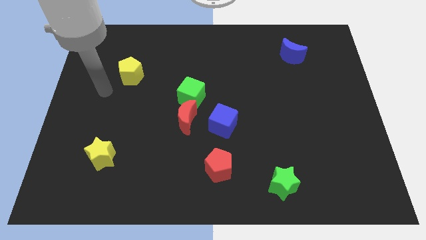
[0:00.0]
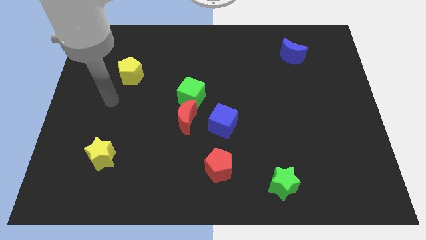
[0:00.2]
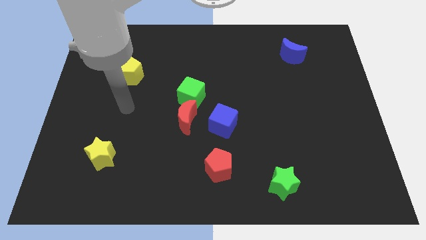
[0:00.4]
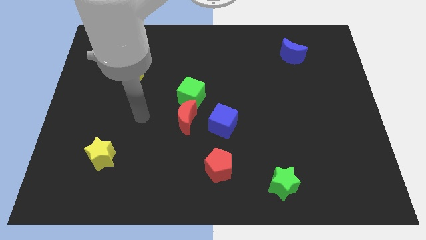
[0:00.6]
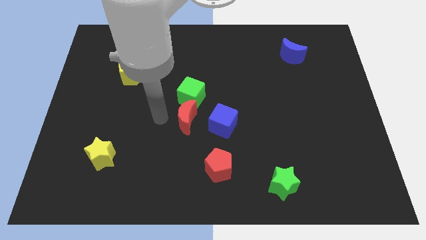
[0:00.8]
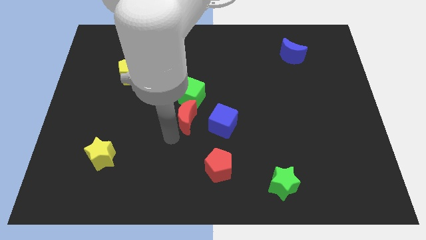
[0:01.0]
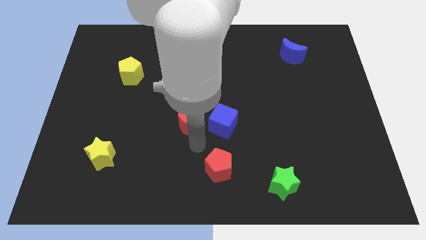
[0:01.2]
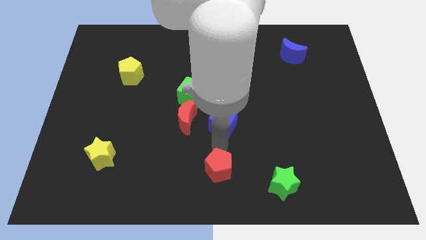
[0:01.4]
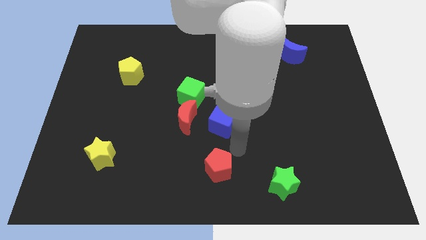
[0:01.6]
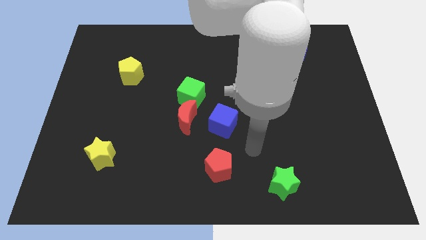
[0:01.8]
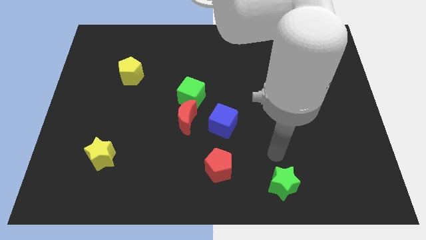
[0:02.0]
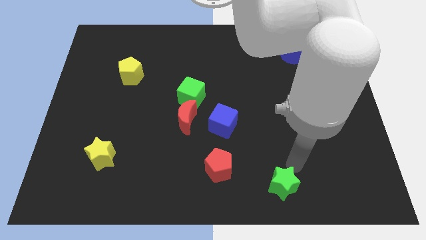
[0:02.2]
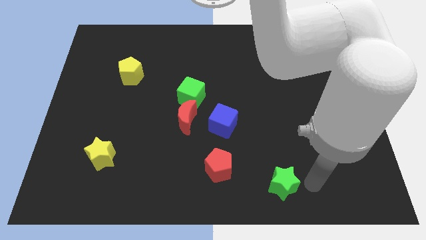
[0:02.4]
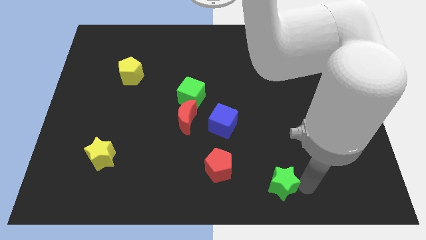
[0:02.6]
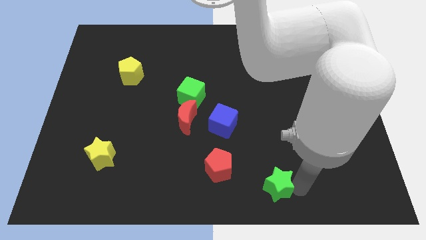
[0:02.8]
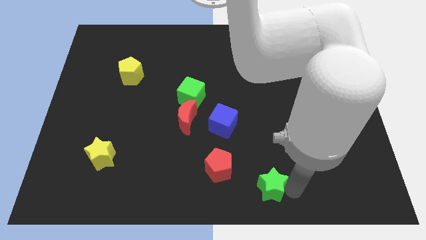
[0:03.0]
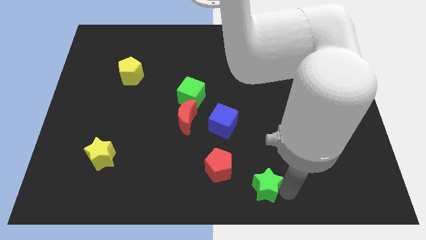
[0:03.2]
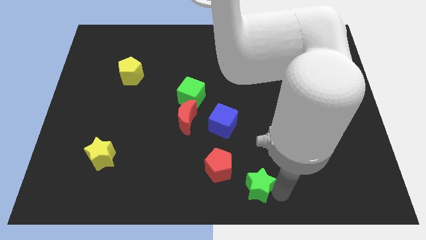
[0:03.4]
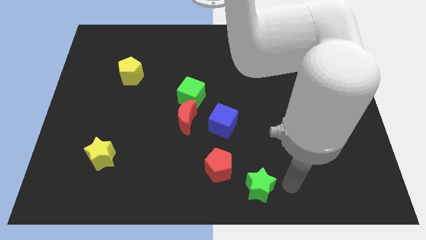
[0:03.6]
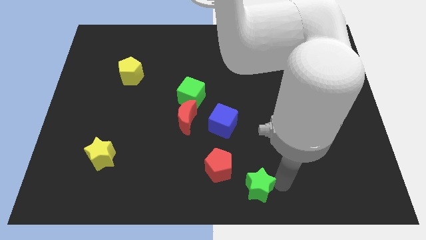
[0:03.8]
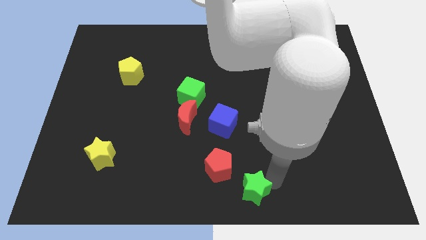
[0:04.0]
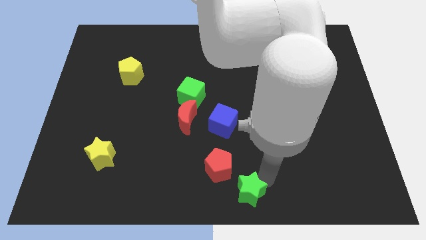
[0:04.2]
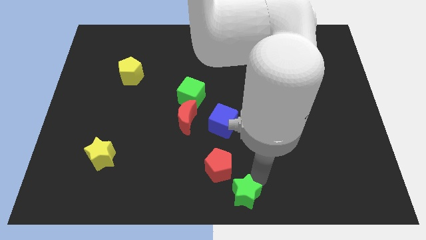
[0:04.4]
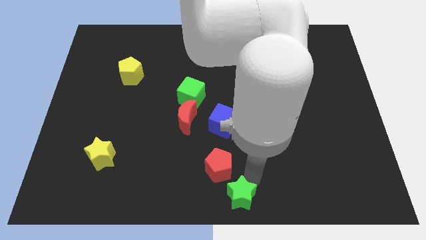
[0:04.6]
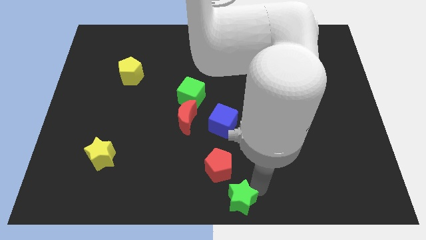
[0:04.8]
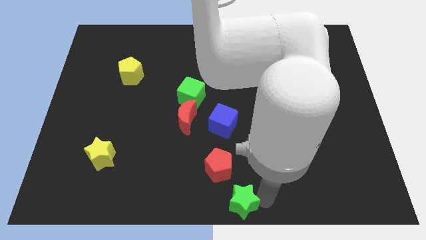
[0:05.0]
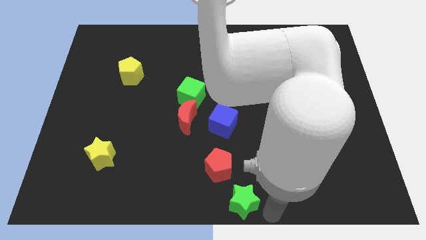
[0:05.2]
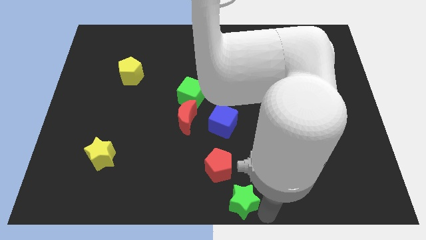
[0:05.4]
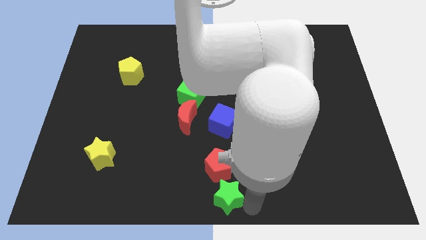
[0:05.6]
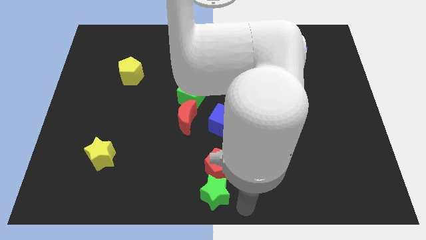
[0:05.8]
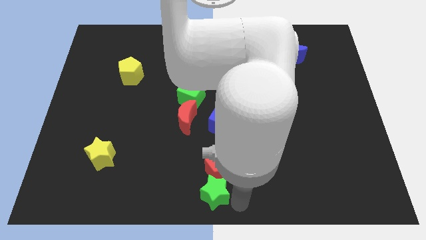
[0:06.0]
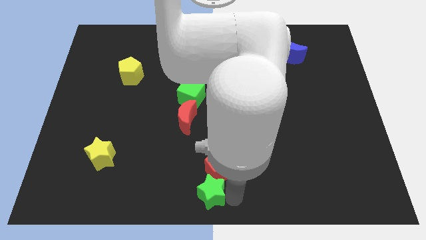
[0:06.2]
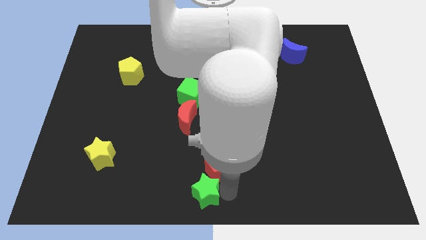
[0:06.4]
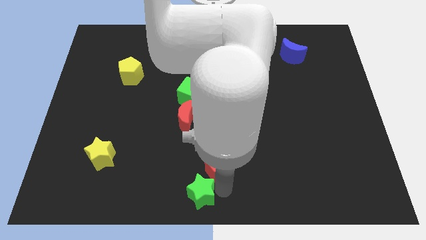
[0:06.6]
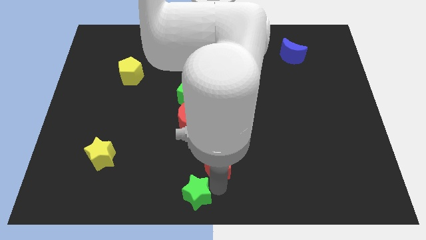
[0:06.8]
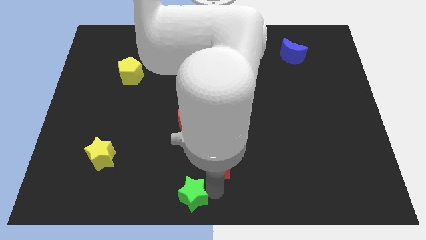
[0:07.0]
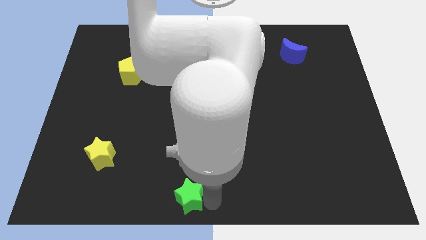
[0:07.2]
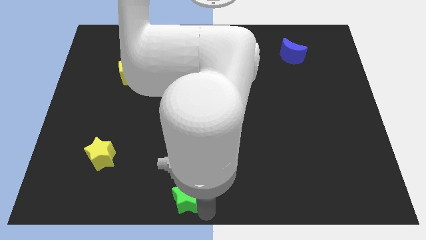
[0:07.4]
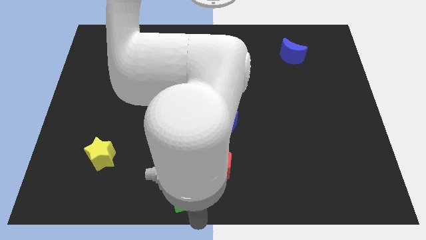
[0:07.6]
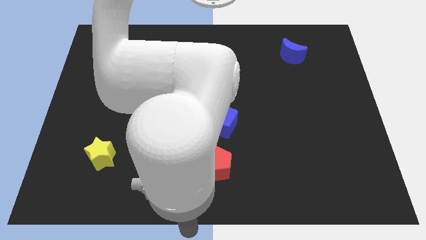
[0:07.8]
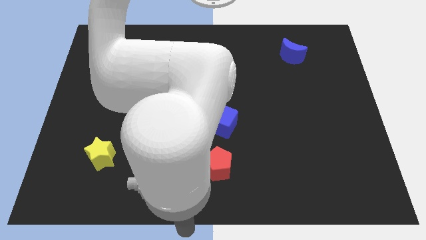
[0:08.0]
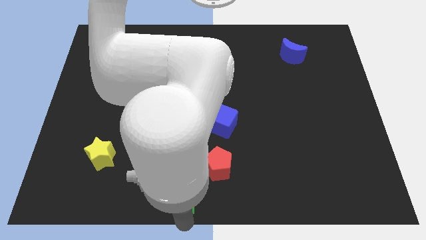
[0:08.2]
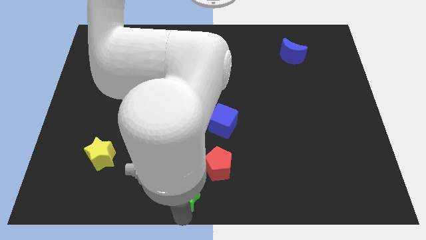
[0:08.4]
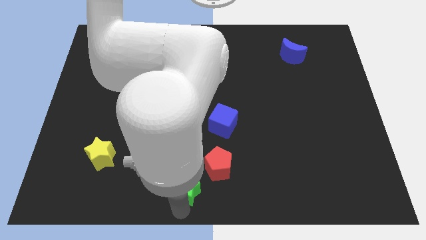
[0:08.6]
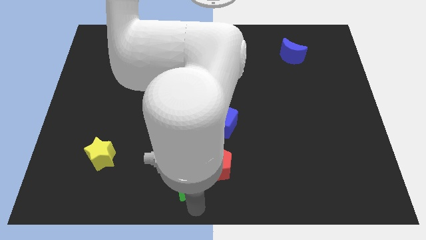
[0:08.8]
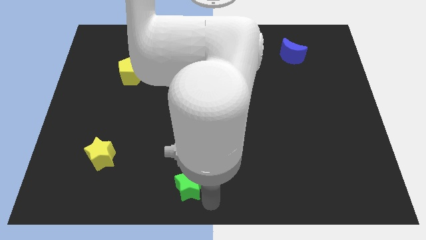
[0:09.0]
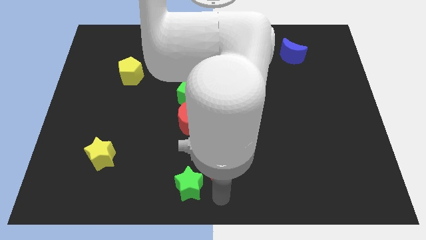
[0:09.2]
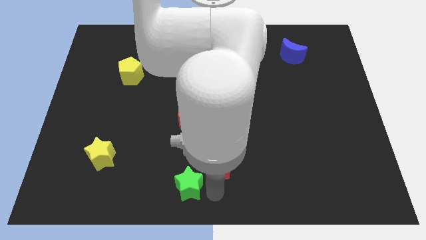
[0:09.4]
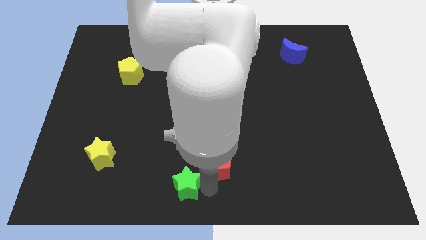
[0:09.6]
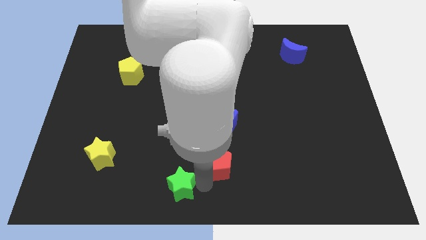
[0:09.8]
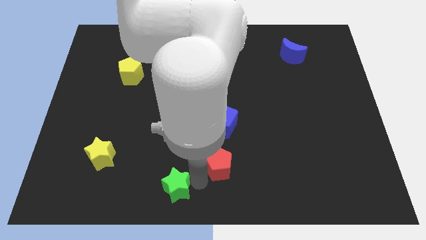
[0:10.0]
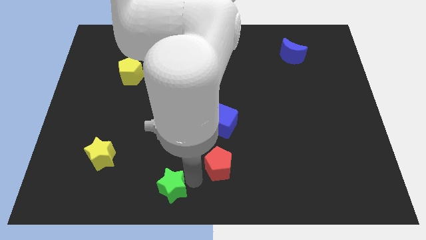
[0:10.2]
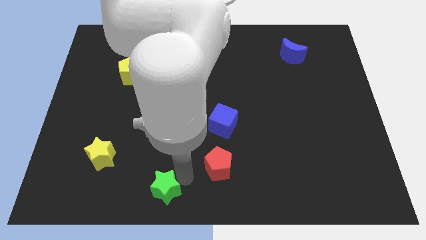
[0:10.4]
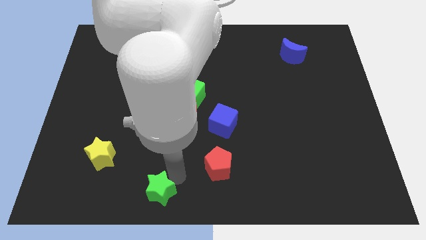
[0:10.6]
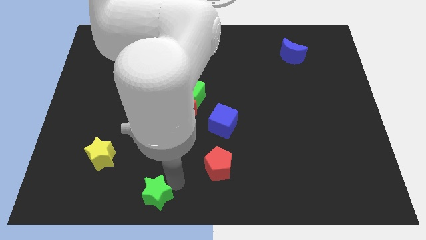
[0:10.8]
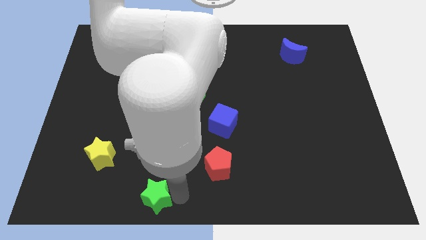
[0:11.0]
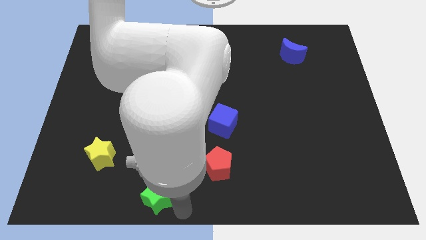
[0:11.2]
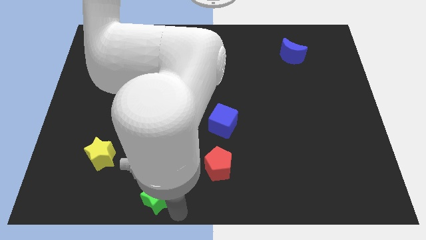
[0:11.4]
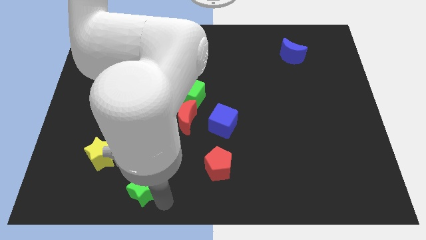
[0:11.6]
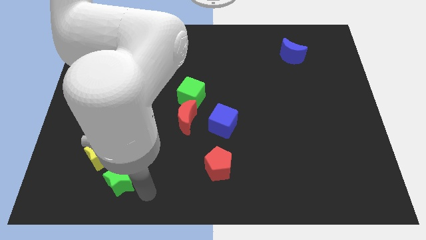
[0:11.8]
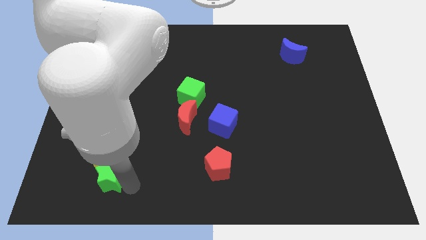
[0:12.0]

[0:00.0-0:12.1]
move the green star to the yellow star

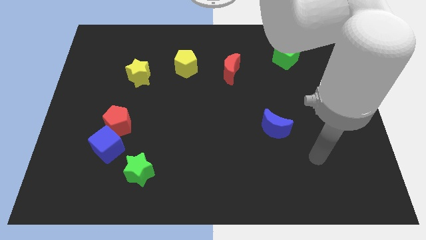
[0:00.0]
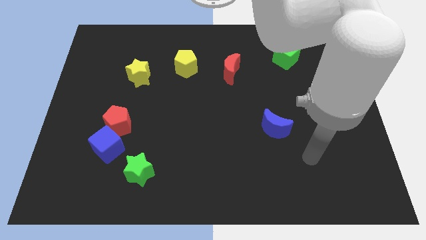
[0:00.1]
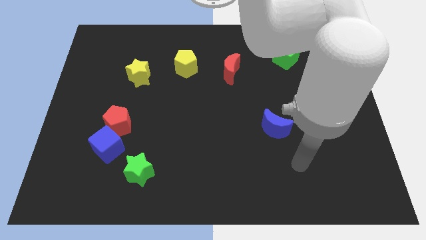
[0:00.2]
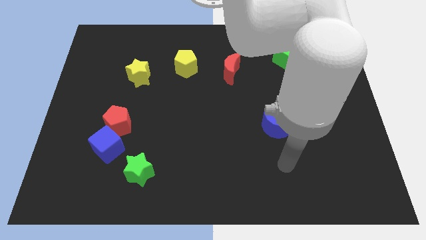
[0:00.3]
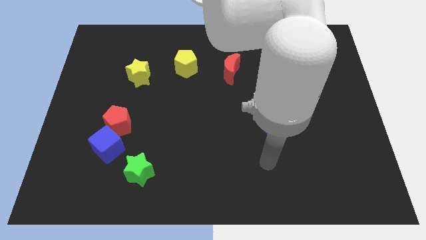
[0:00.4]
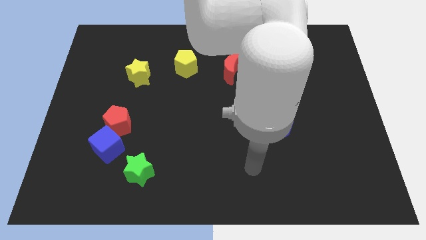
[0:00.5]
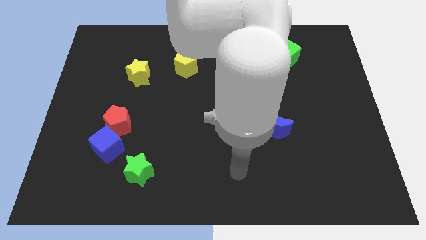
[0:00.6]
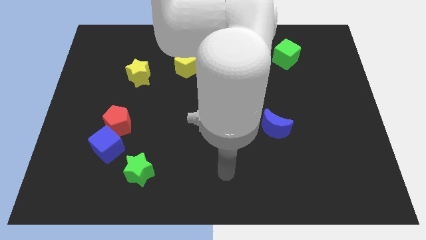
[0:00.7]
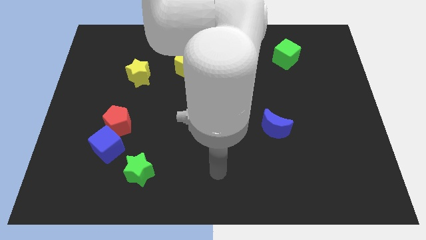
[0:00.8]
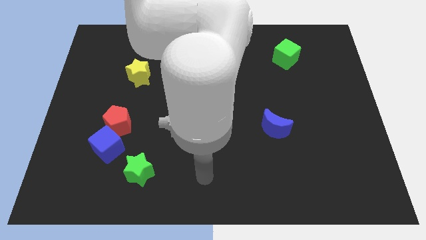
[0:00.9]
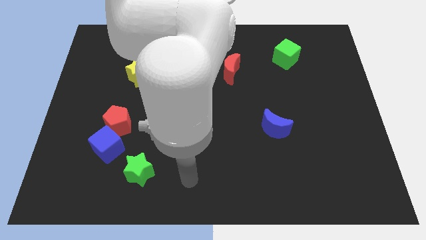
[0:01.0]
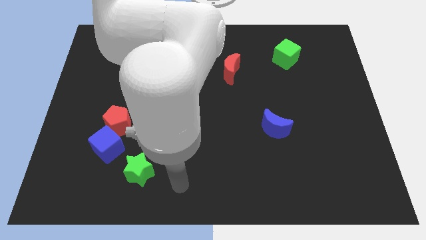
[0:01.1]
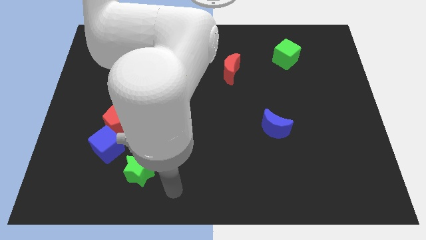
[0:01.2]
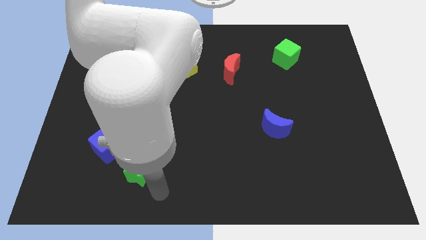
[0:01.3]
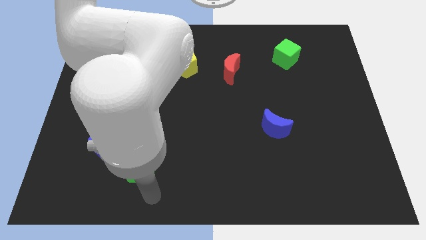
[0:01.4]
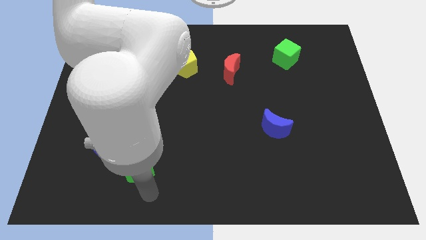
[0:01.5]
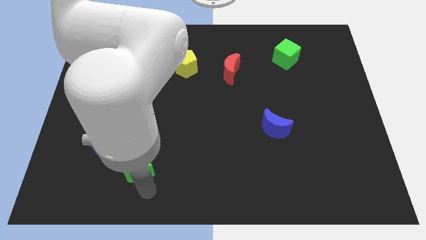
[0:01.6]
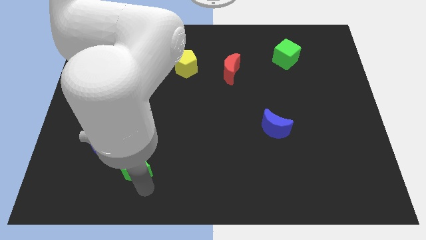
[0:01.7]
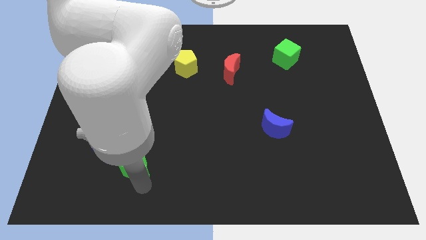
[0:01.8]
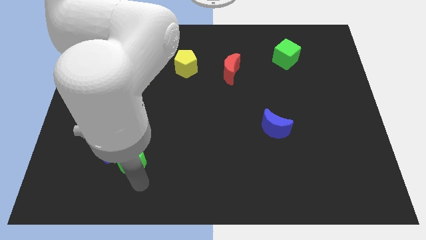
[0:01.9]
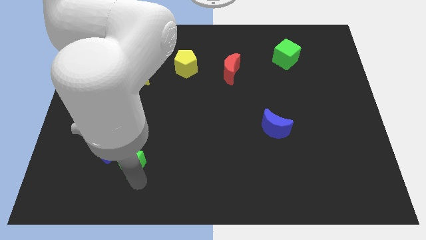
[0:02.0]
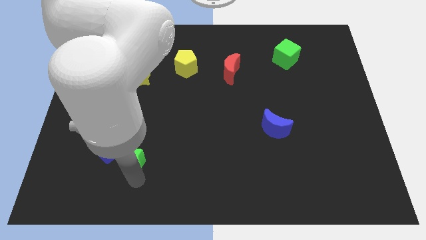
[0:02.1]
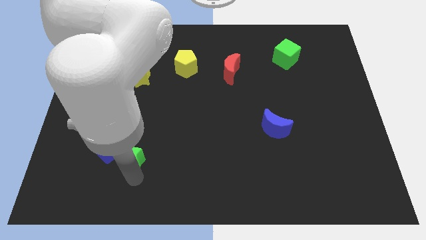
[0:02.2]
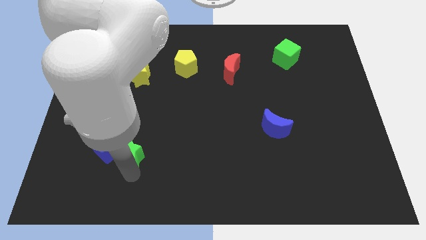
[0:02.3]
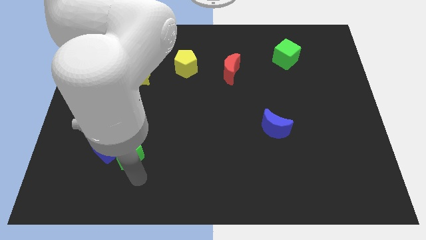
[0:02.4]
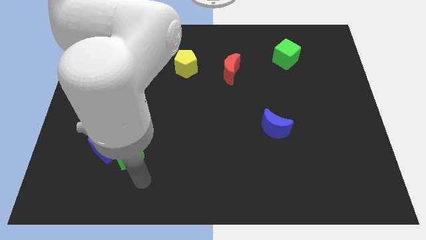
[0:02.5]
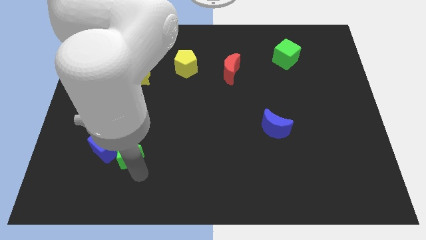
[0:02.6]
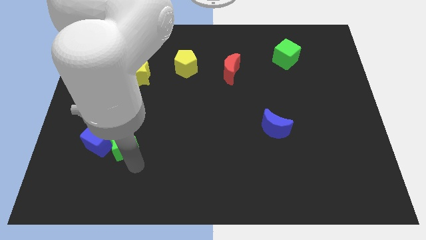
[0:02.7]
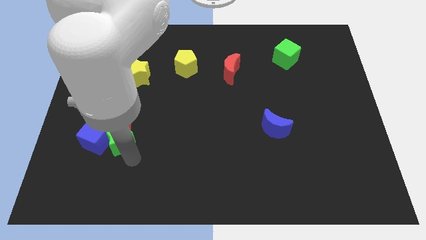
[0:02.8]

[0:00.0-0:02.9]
move the green star close to the red pentagon
